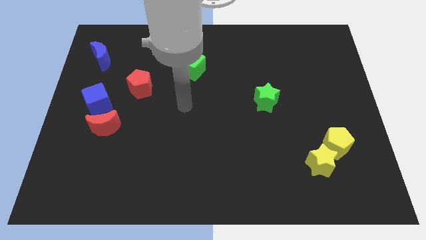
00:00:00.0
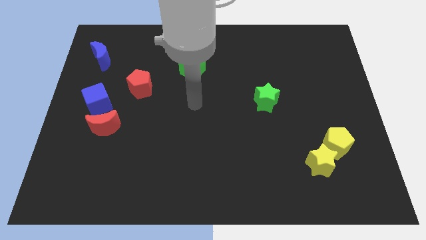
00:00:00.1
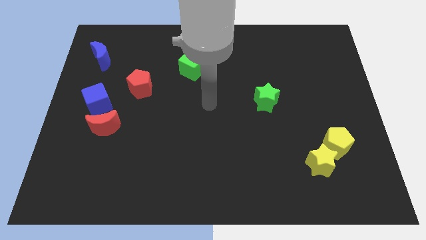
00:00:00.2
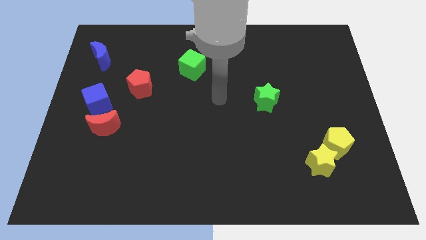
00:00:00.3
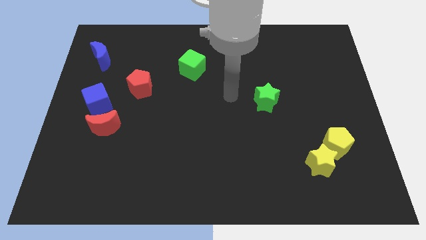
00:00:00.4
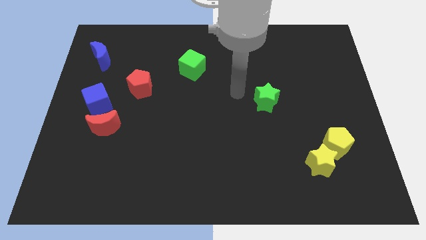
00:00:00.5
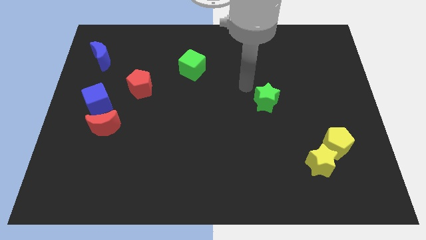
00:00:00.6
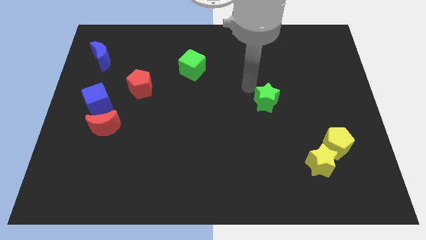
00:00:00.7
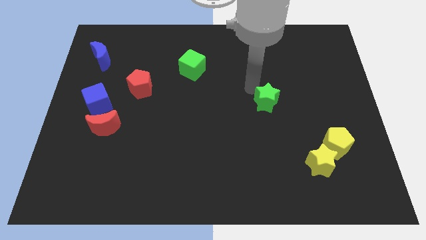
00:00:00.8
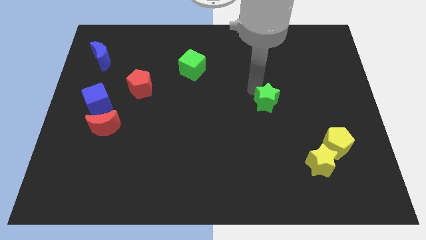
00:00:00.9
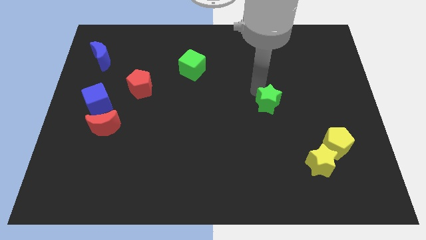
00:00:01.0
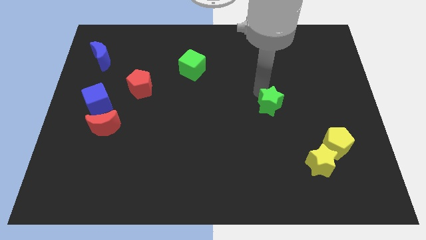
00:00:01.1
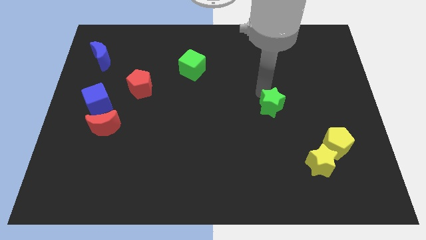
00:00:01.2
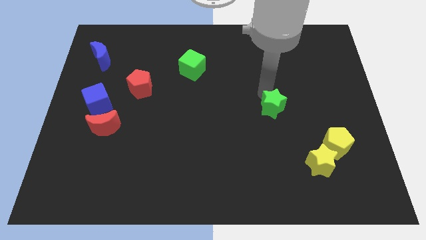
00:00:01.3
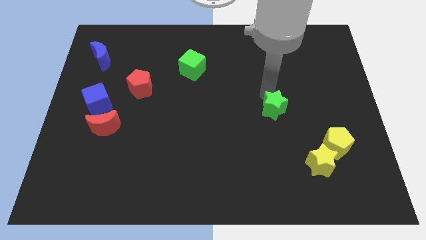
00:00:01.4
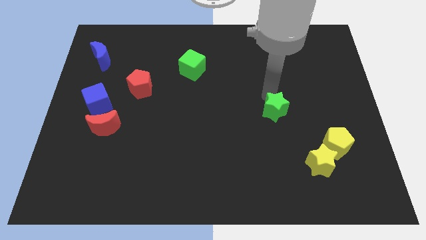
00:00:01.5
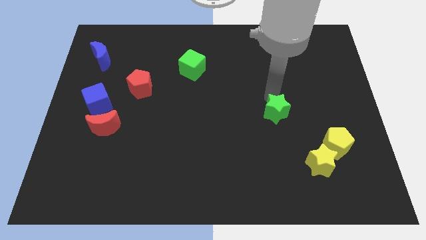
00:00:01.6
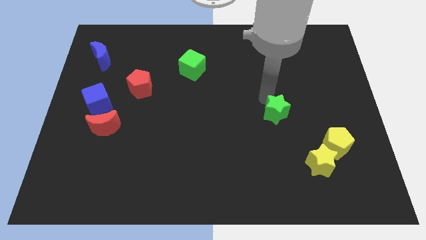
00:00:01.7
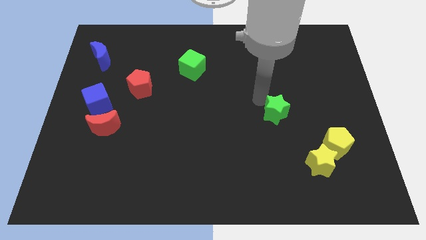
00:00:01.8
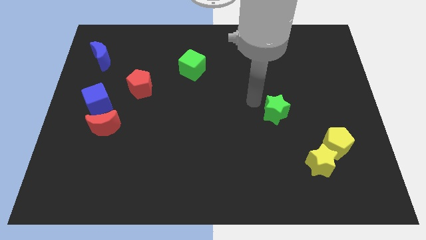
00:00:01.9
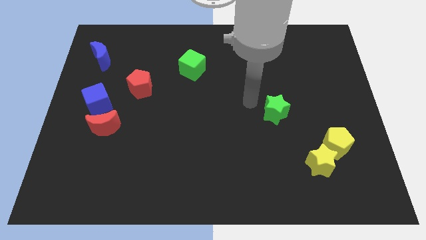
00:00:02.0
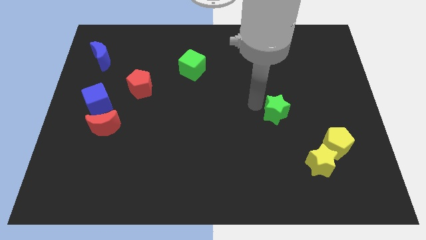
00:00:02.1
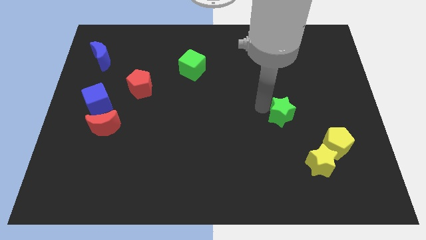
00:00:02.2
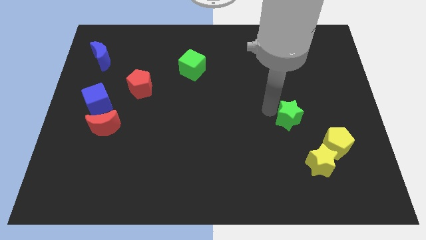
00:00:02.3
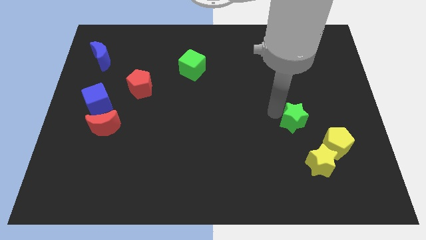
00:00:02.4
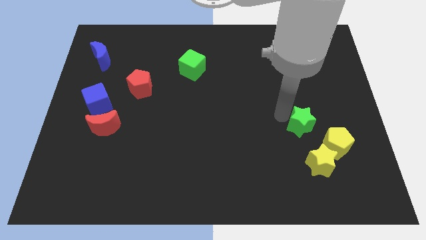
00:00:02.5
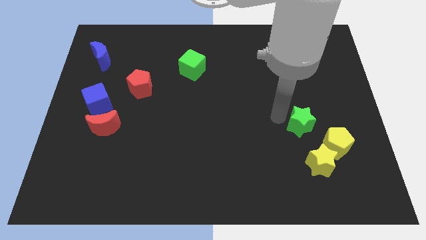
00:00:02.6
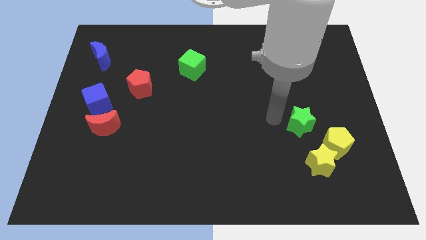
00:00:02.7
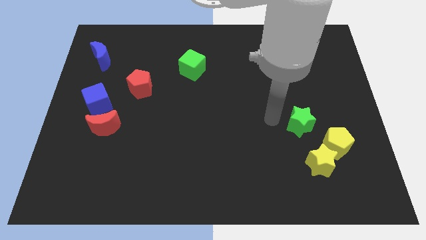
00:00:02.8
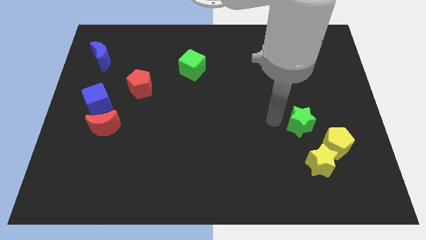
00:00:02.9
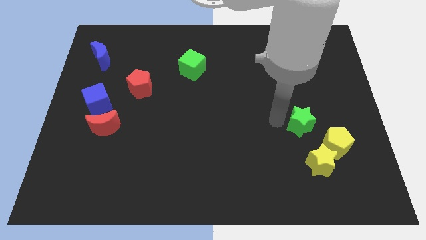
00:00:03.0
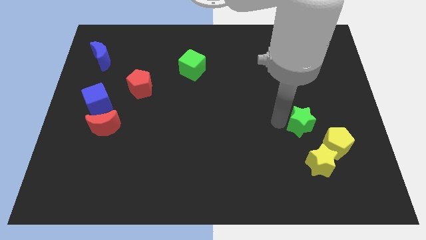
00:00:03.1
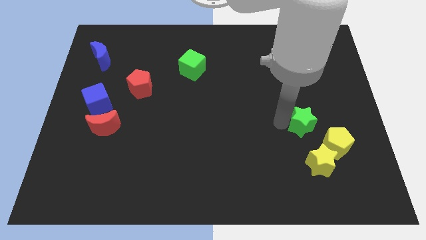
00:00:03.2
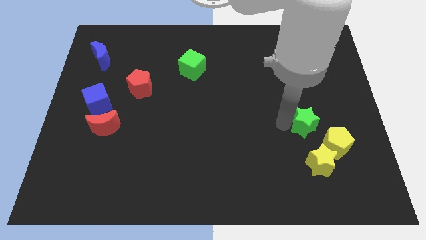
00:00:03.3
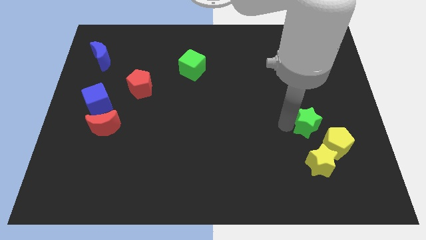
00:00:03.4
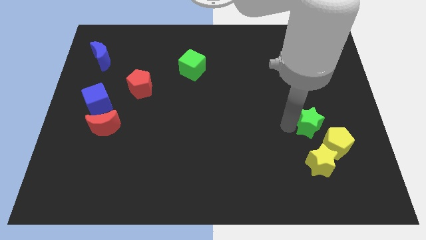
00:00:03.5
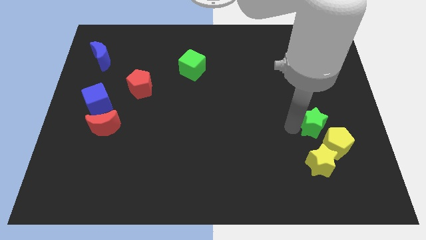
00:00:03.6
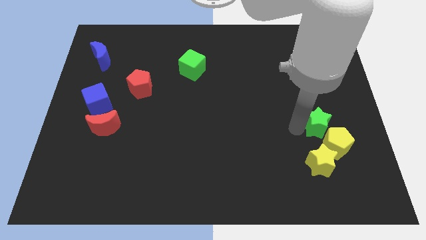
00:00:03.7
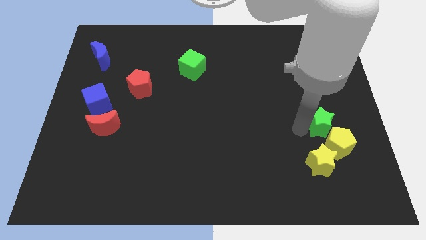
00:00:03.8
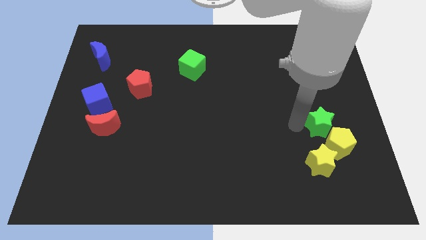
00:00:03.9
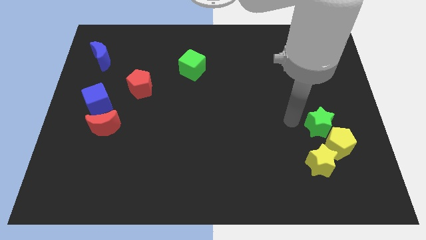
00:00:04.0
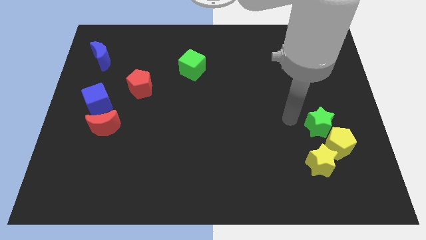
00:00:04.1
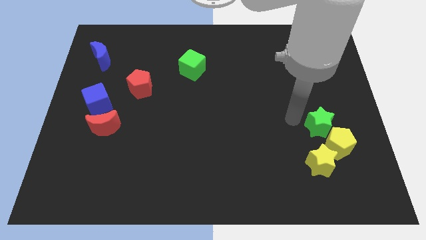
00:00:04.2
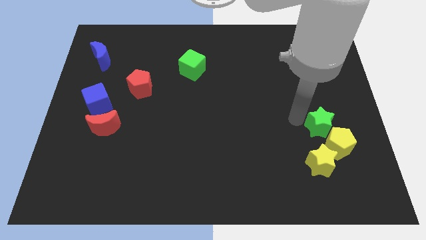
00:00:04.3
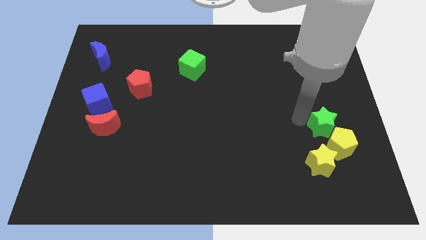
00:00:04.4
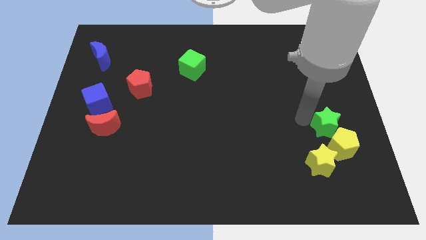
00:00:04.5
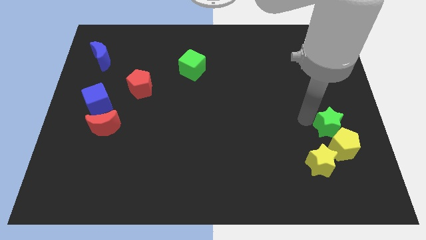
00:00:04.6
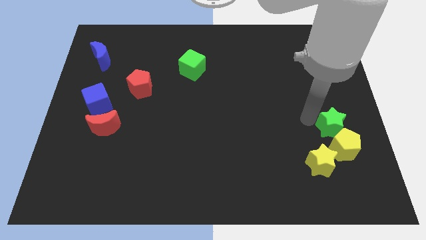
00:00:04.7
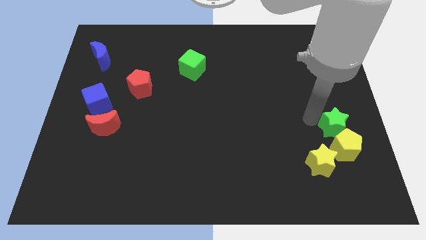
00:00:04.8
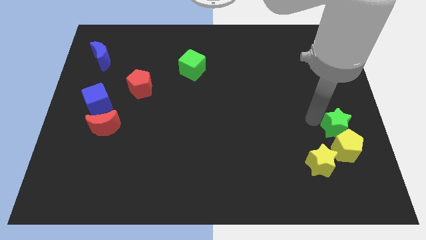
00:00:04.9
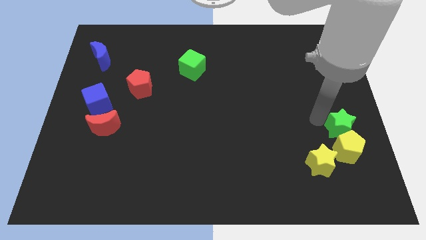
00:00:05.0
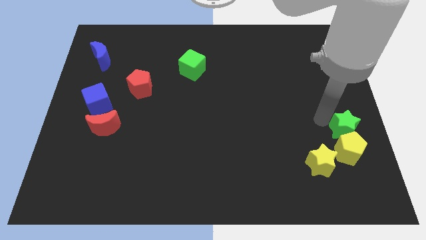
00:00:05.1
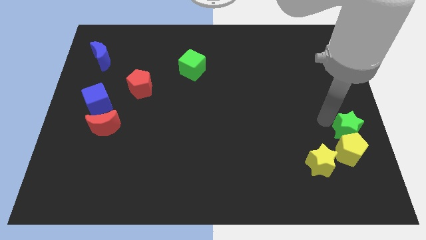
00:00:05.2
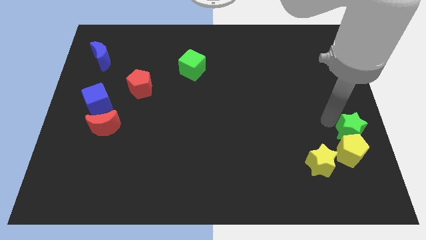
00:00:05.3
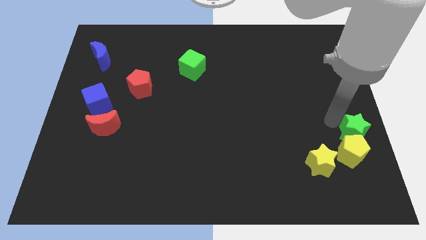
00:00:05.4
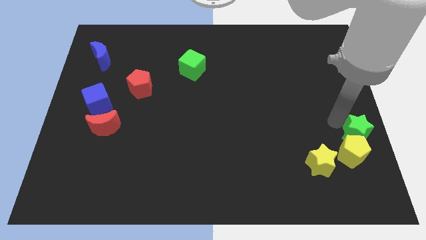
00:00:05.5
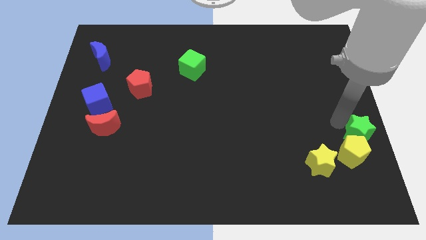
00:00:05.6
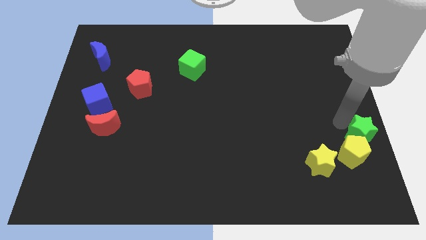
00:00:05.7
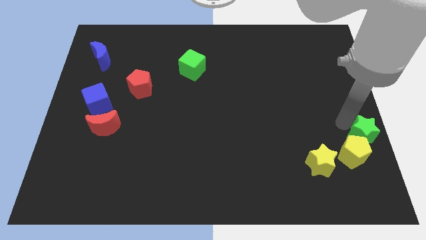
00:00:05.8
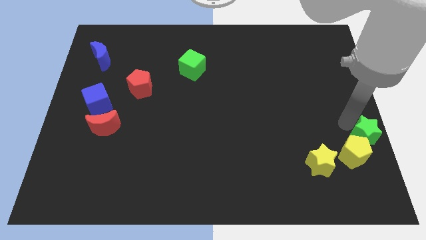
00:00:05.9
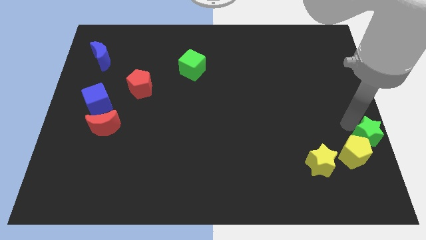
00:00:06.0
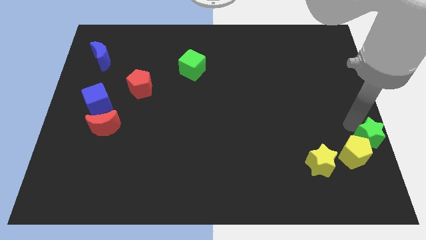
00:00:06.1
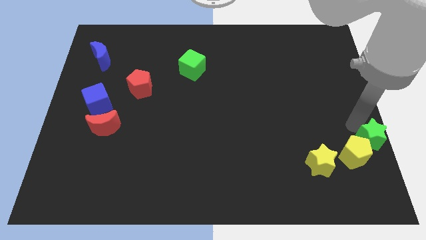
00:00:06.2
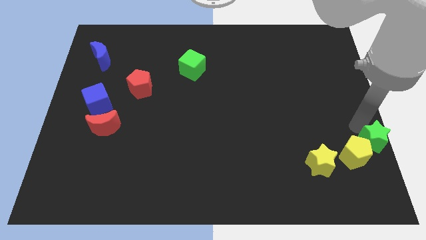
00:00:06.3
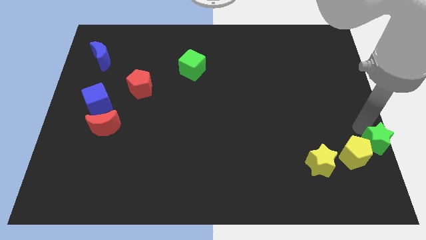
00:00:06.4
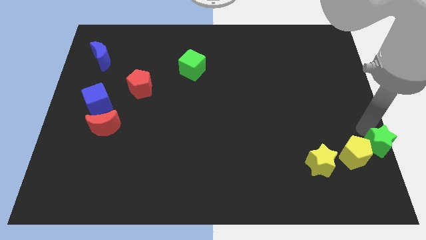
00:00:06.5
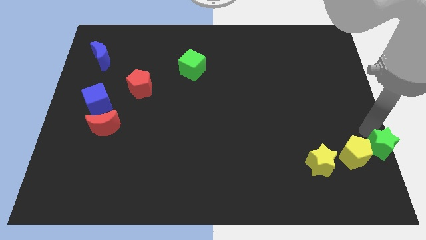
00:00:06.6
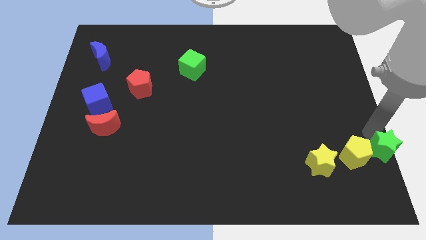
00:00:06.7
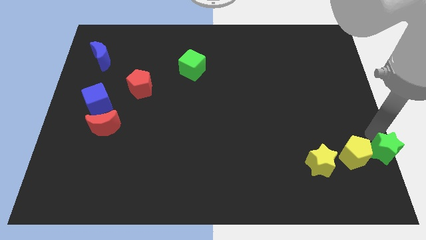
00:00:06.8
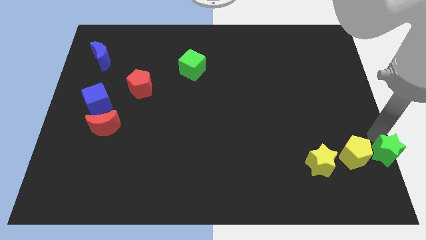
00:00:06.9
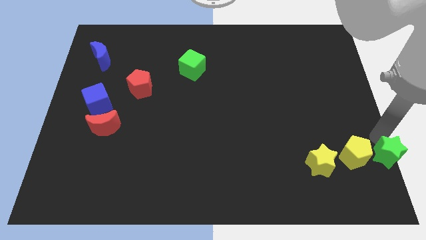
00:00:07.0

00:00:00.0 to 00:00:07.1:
put the green star to the bottom right

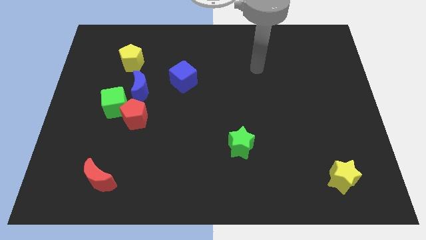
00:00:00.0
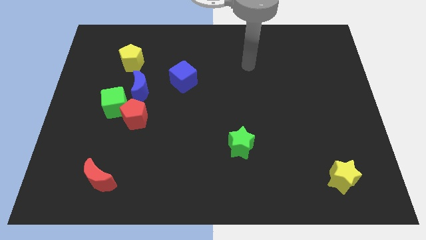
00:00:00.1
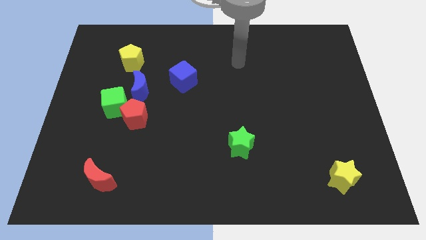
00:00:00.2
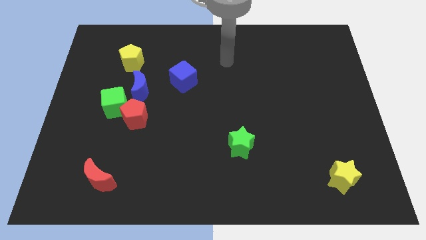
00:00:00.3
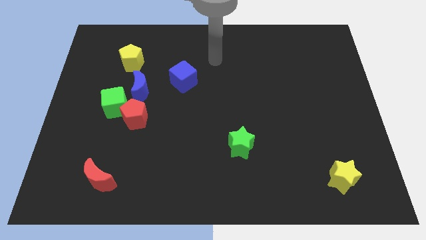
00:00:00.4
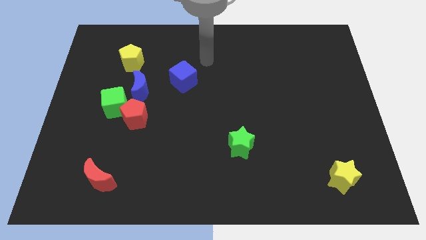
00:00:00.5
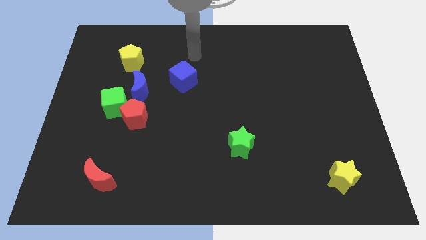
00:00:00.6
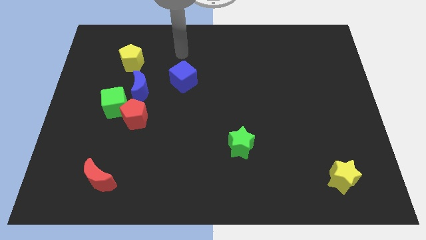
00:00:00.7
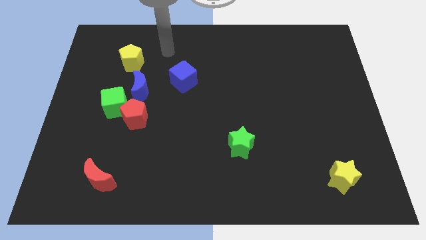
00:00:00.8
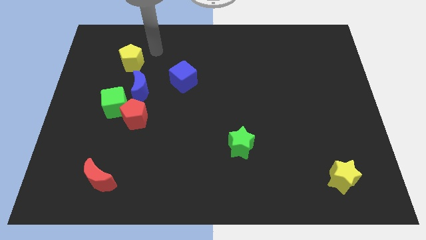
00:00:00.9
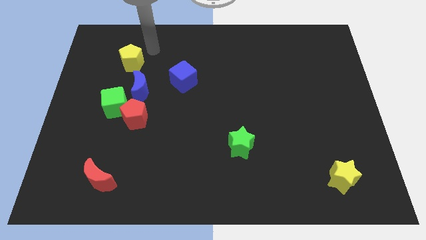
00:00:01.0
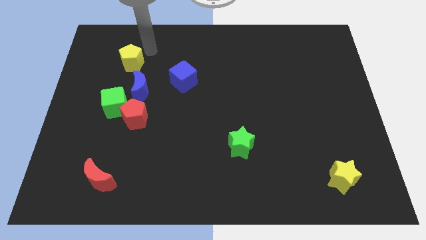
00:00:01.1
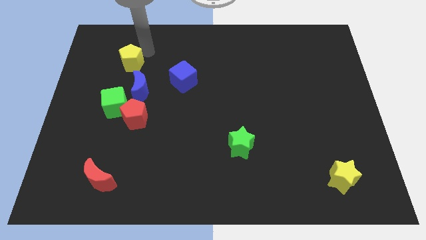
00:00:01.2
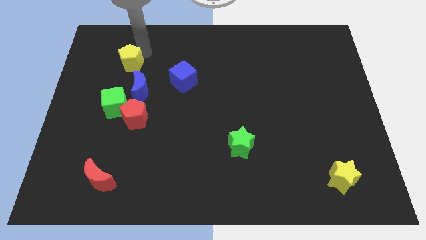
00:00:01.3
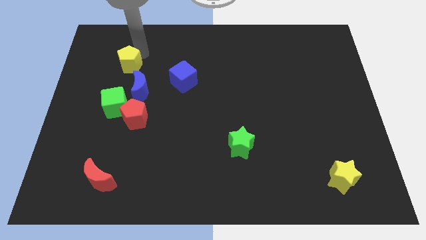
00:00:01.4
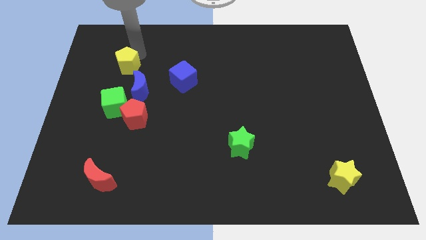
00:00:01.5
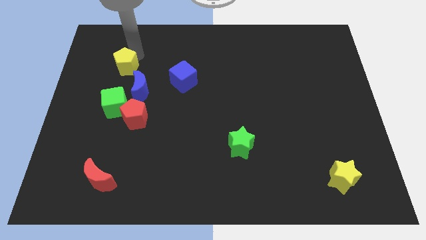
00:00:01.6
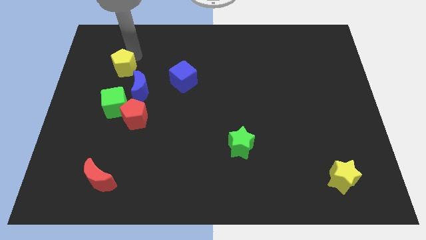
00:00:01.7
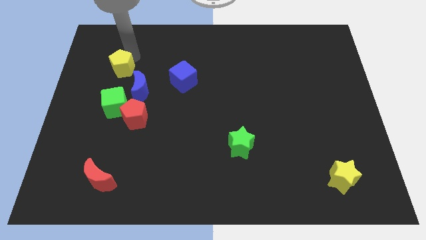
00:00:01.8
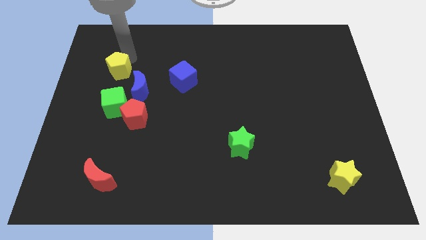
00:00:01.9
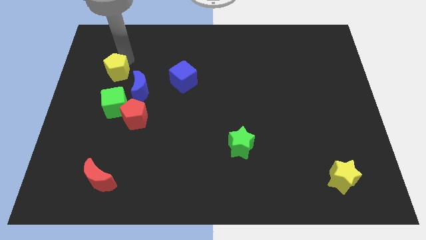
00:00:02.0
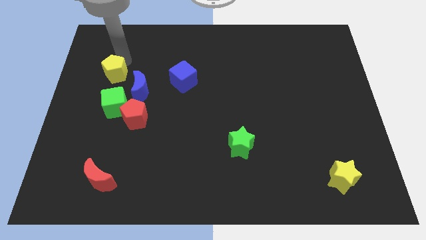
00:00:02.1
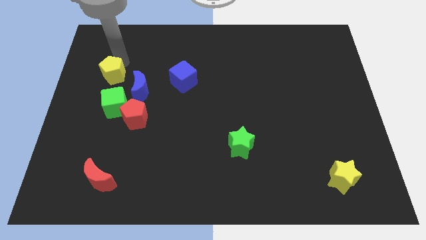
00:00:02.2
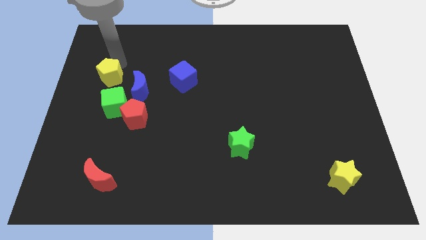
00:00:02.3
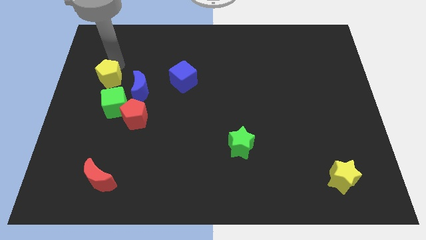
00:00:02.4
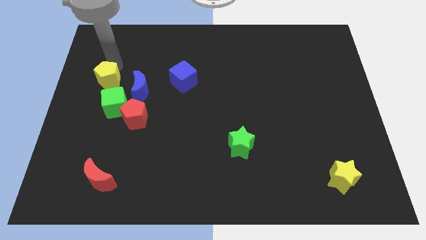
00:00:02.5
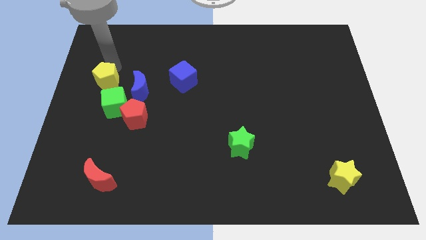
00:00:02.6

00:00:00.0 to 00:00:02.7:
move the yellow pentagon to the center left
